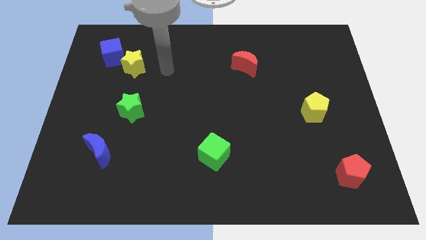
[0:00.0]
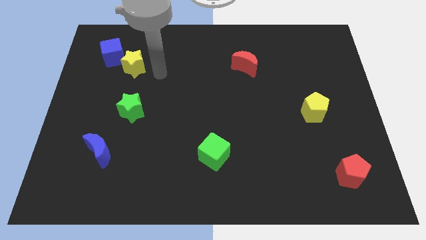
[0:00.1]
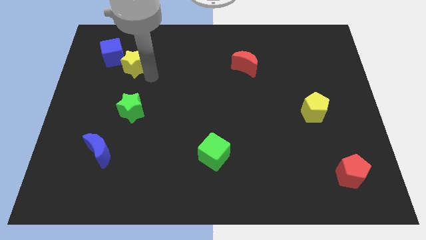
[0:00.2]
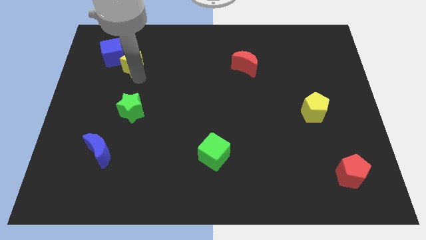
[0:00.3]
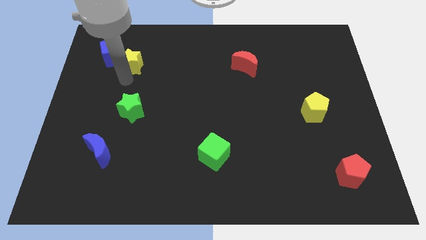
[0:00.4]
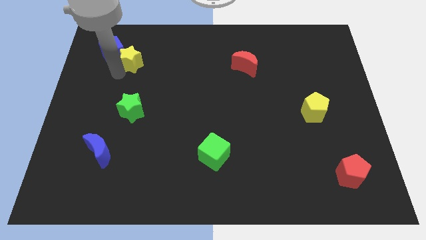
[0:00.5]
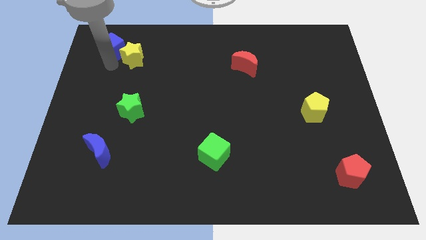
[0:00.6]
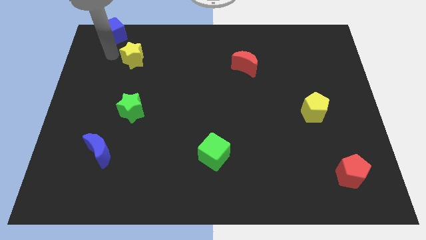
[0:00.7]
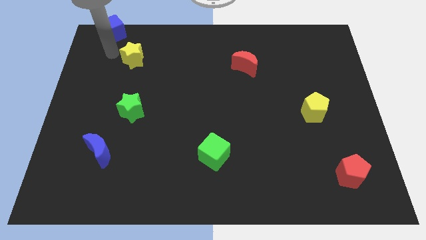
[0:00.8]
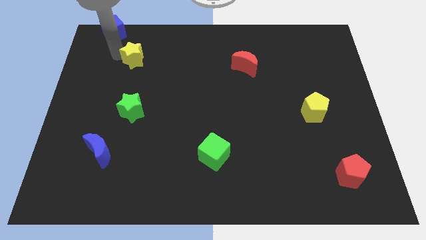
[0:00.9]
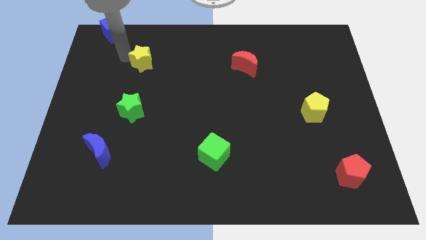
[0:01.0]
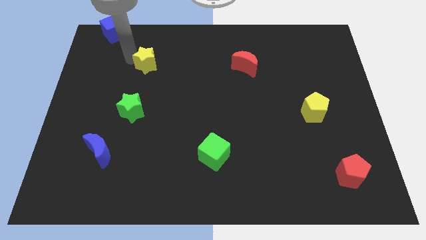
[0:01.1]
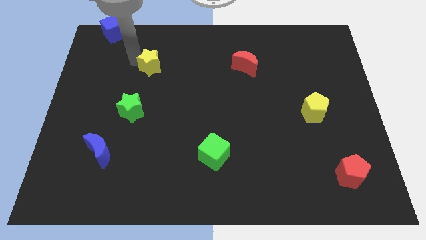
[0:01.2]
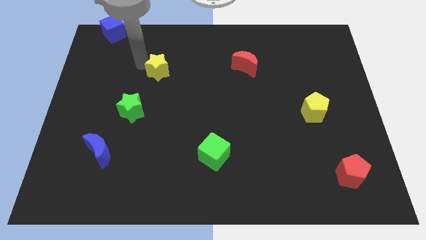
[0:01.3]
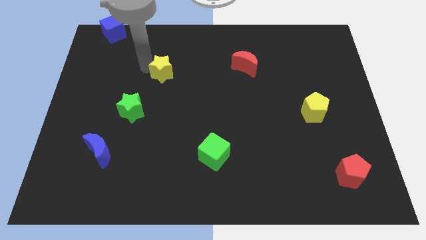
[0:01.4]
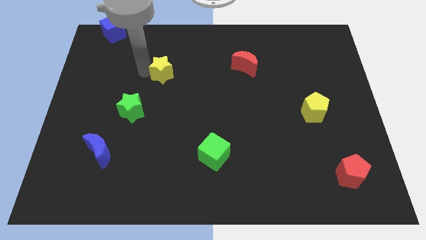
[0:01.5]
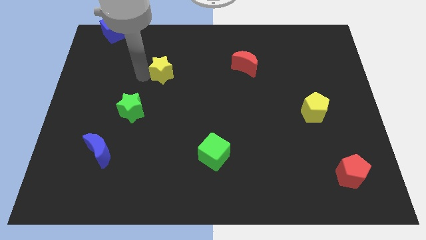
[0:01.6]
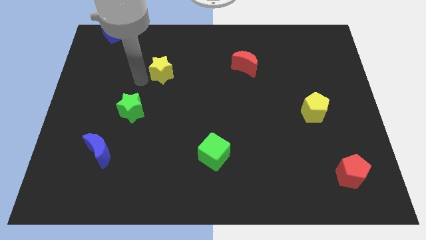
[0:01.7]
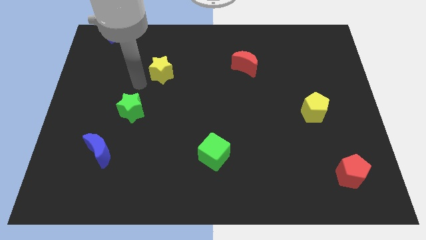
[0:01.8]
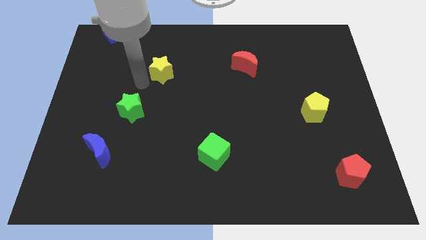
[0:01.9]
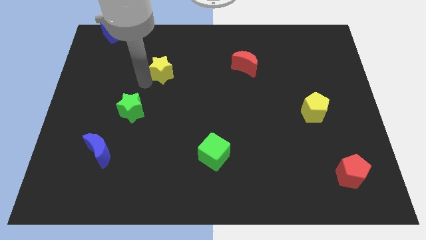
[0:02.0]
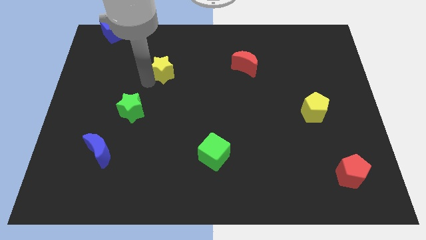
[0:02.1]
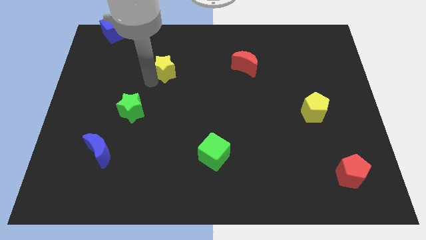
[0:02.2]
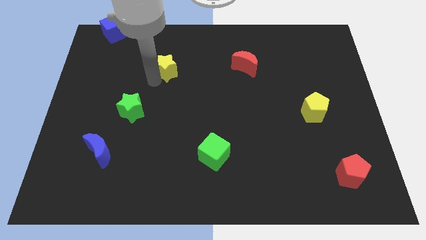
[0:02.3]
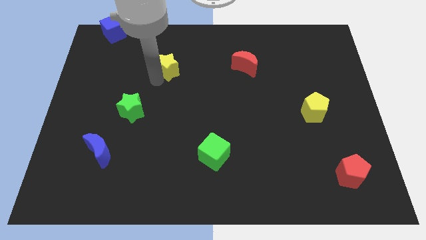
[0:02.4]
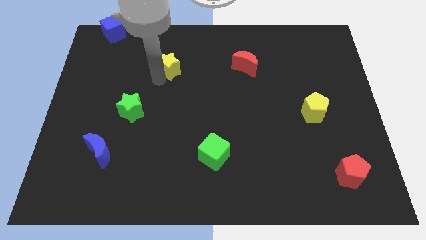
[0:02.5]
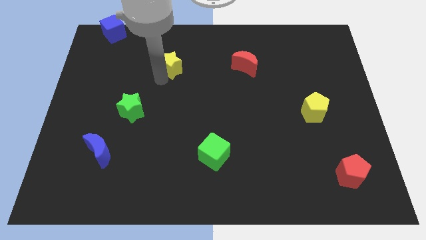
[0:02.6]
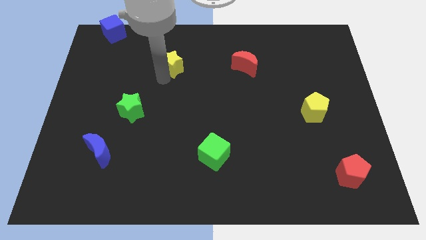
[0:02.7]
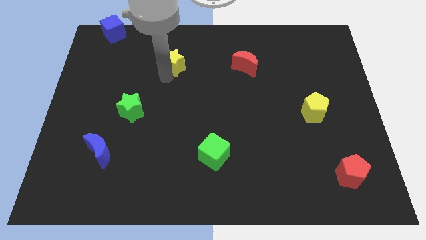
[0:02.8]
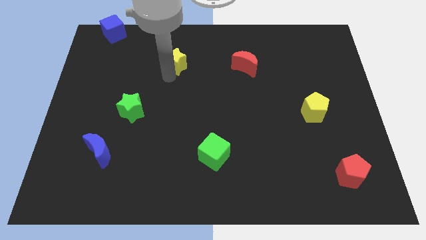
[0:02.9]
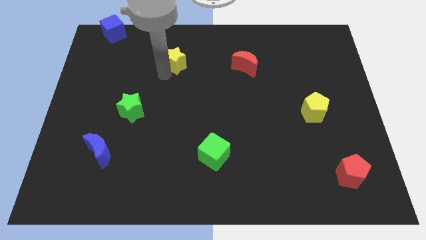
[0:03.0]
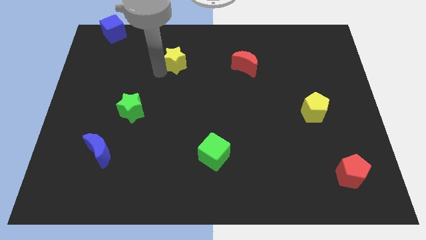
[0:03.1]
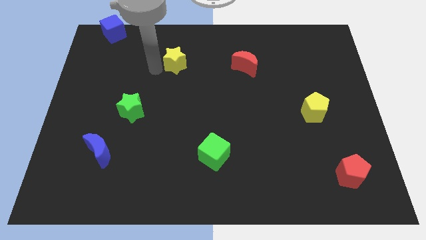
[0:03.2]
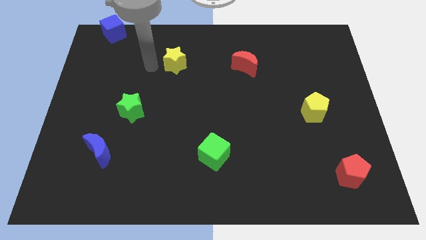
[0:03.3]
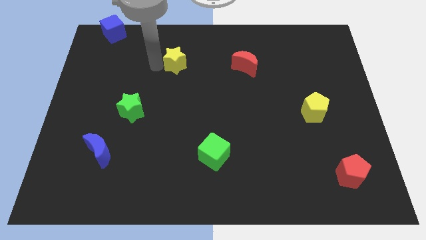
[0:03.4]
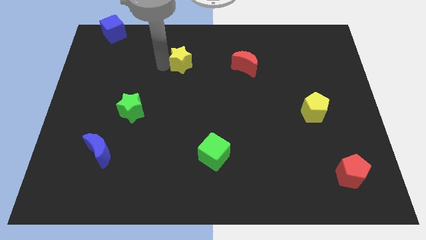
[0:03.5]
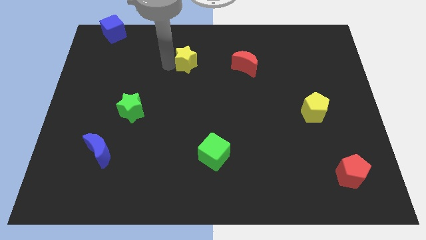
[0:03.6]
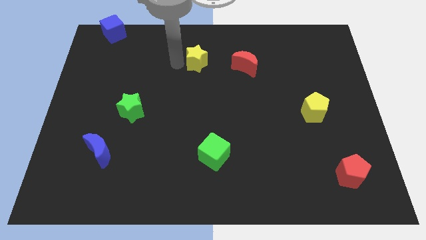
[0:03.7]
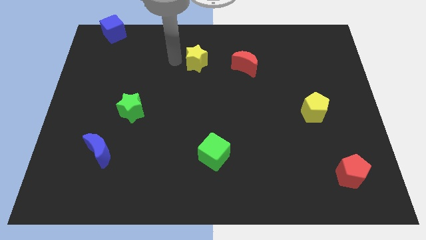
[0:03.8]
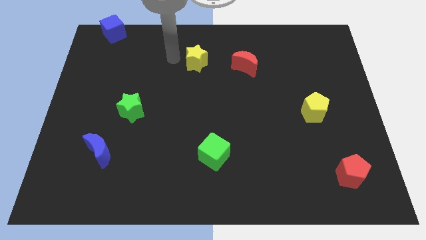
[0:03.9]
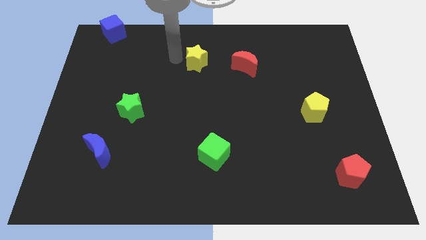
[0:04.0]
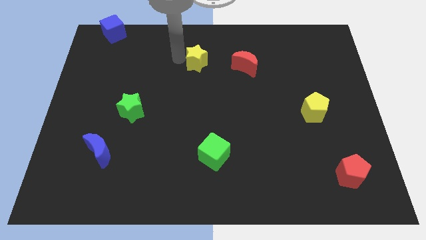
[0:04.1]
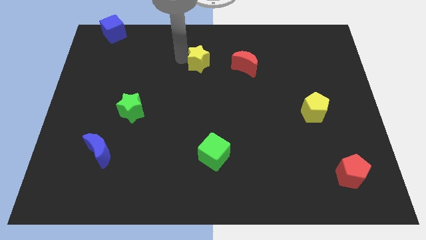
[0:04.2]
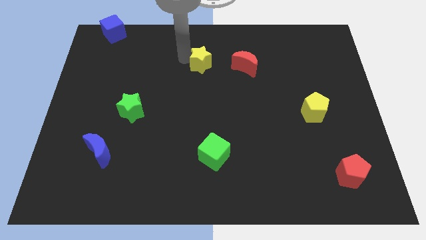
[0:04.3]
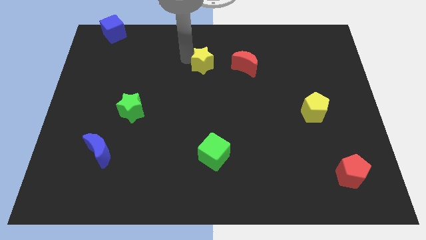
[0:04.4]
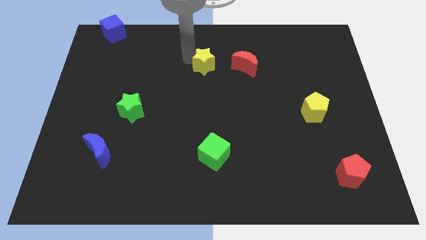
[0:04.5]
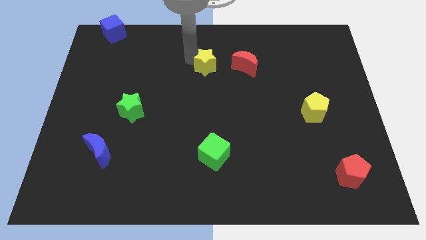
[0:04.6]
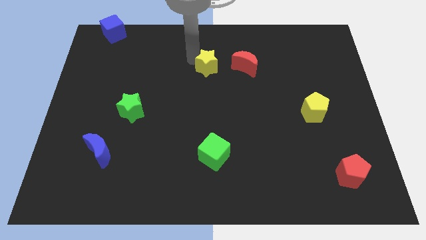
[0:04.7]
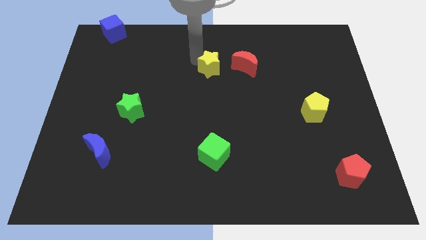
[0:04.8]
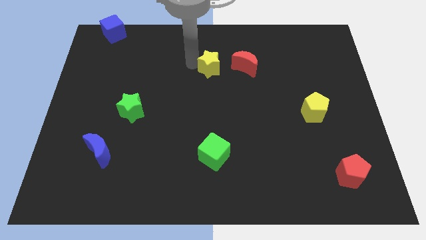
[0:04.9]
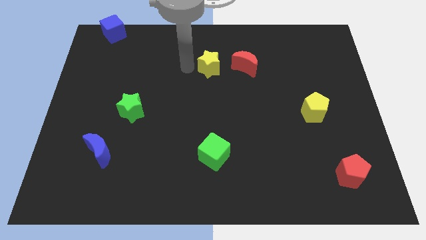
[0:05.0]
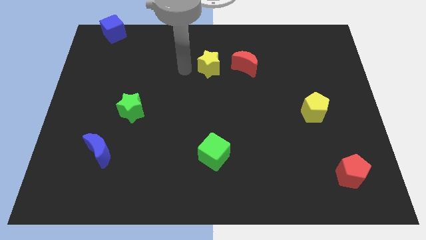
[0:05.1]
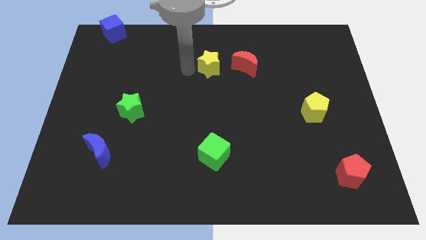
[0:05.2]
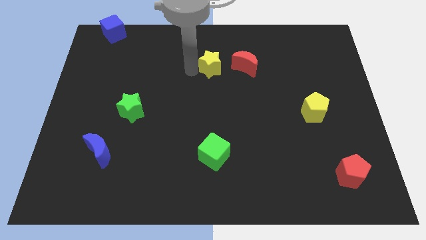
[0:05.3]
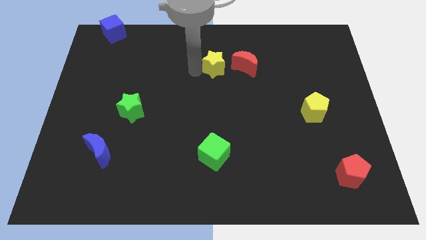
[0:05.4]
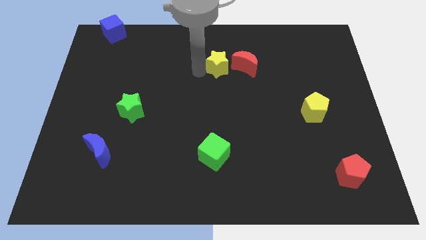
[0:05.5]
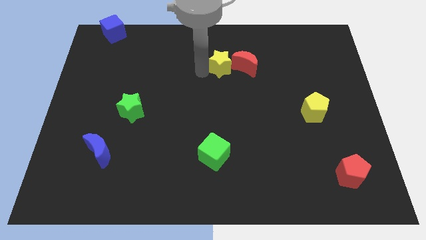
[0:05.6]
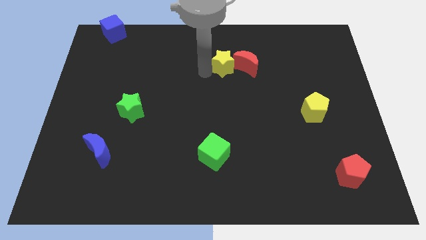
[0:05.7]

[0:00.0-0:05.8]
put the yellow star to the red moon

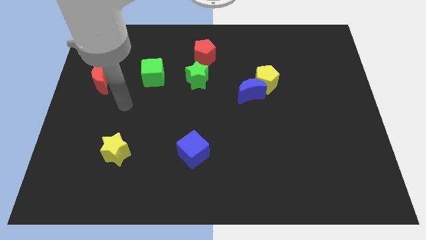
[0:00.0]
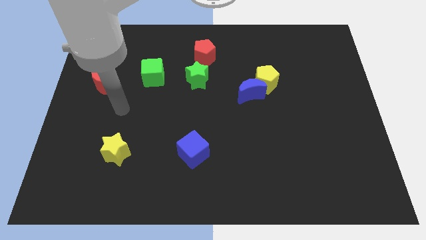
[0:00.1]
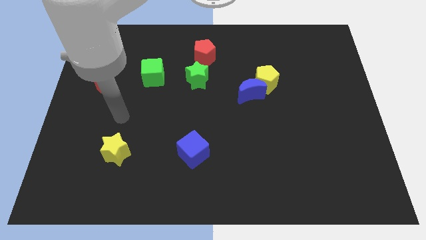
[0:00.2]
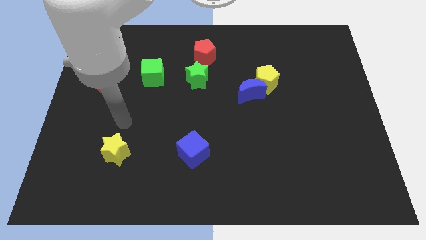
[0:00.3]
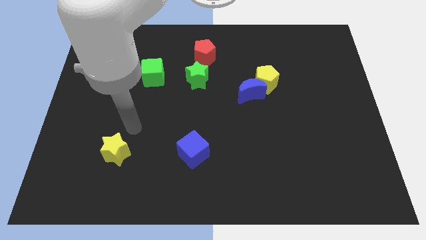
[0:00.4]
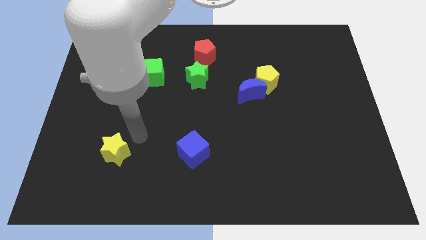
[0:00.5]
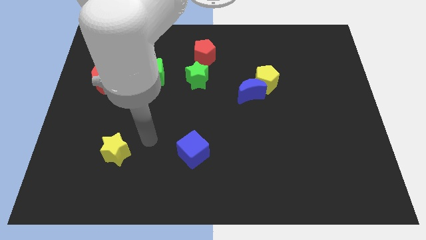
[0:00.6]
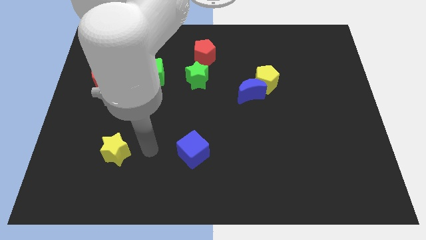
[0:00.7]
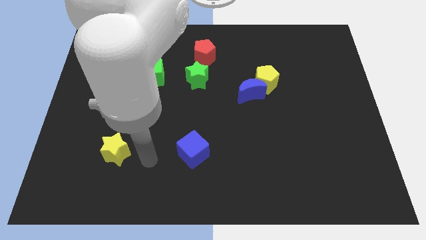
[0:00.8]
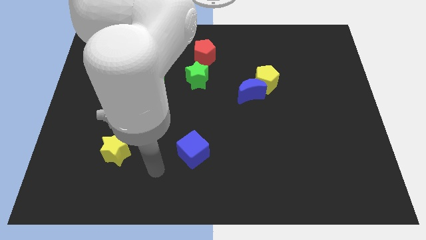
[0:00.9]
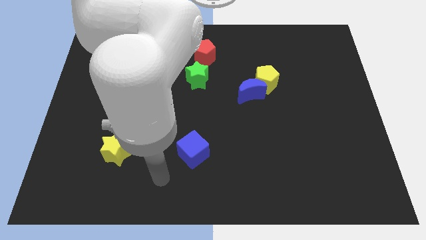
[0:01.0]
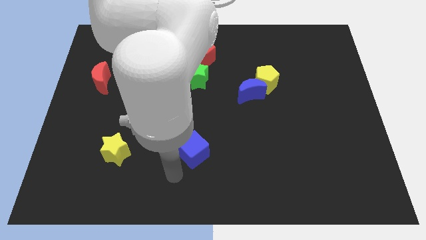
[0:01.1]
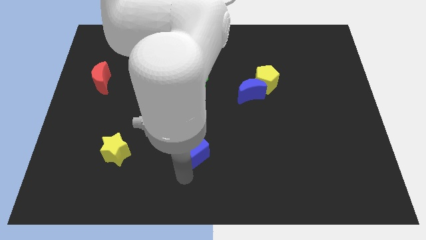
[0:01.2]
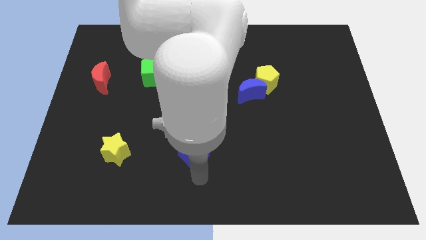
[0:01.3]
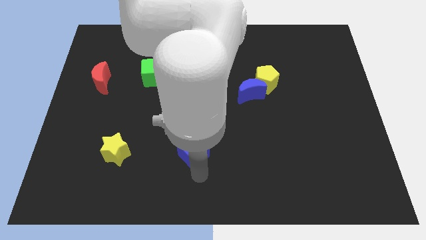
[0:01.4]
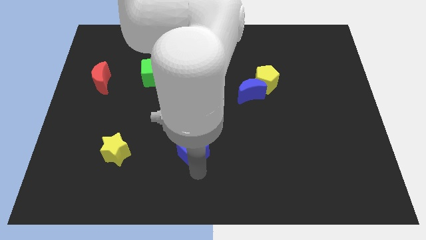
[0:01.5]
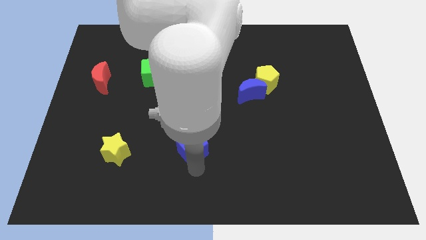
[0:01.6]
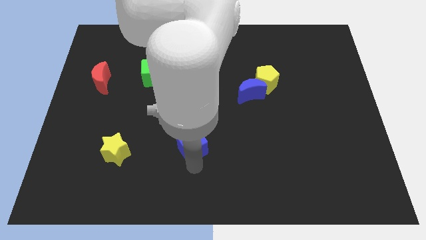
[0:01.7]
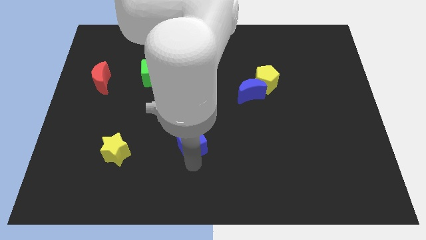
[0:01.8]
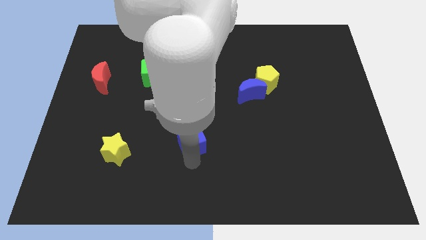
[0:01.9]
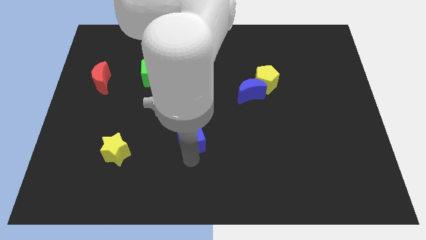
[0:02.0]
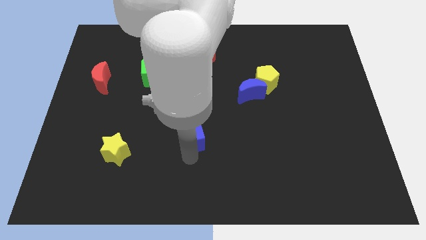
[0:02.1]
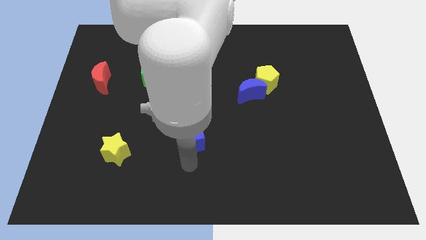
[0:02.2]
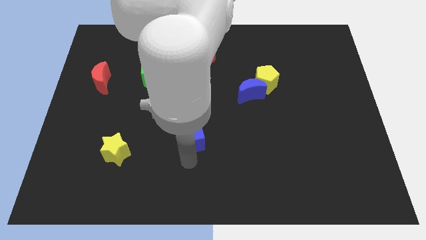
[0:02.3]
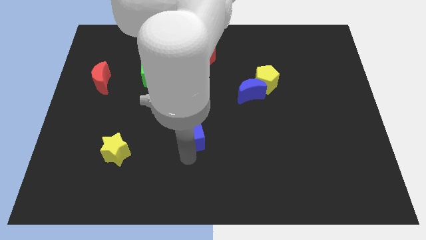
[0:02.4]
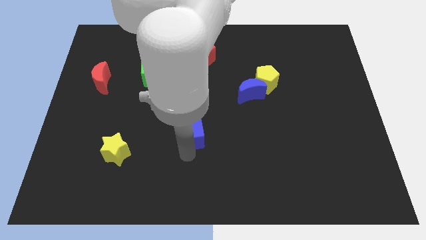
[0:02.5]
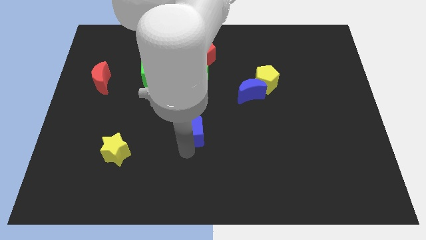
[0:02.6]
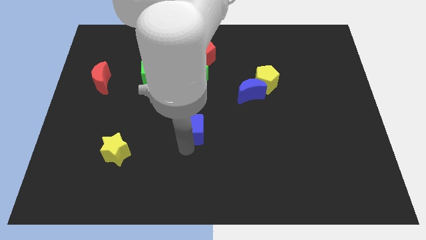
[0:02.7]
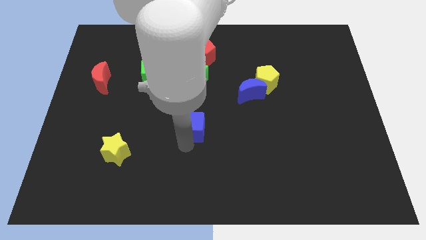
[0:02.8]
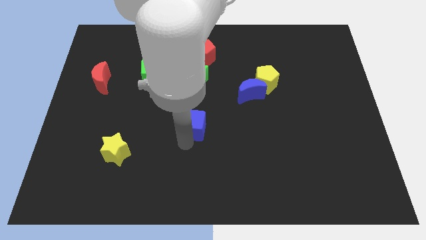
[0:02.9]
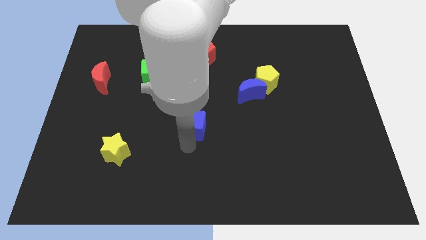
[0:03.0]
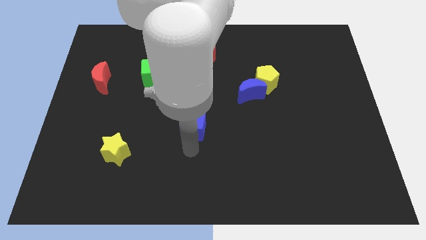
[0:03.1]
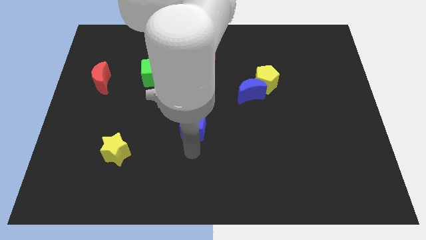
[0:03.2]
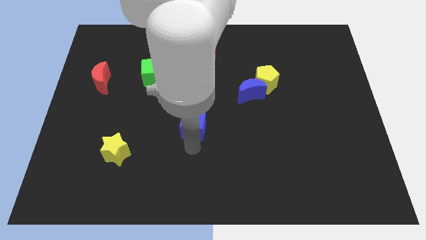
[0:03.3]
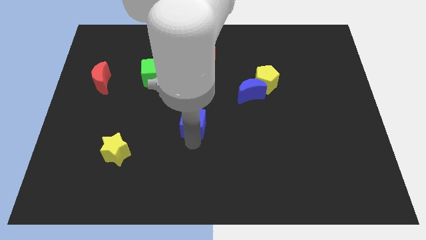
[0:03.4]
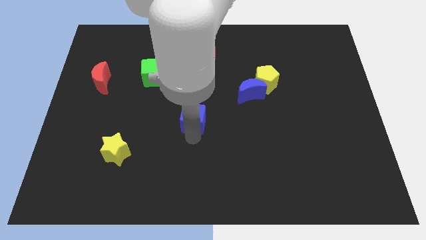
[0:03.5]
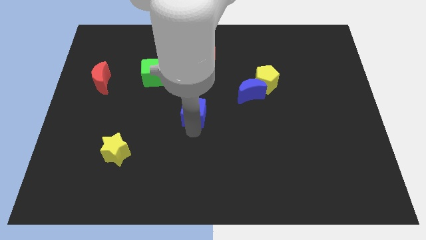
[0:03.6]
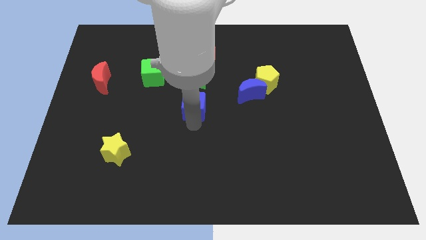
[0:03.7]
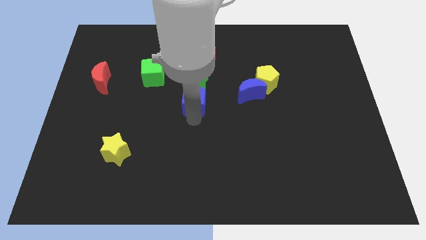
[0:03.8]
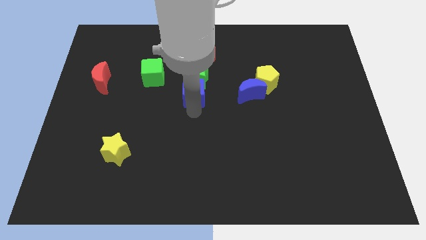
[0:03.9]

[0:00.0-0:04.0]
slide the blue cube to the green star
